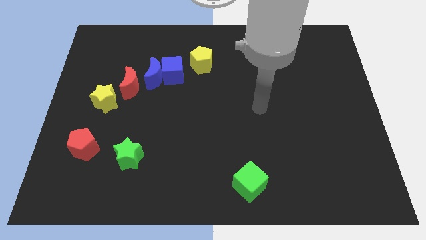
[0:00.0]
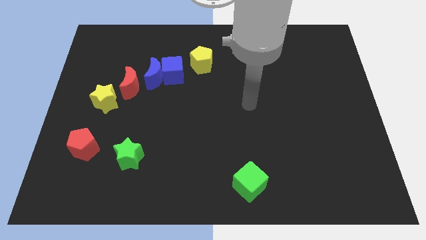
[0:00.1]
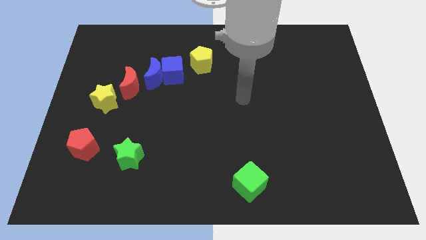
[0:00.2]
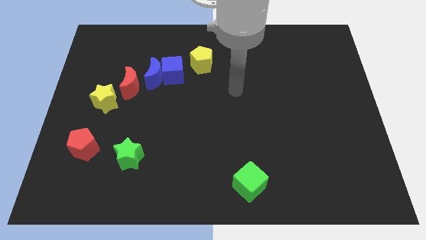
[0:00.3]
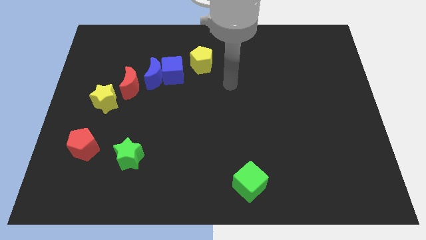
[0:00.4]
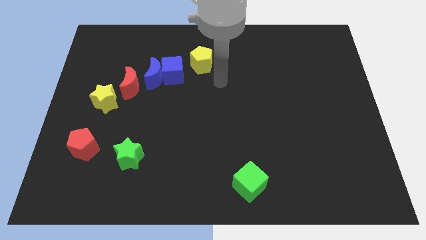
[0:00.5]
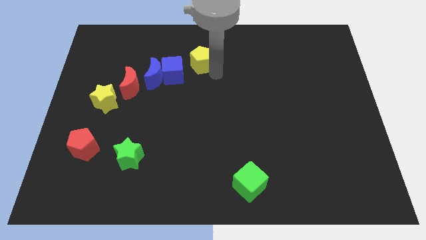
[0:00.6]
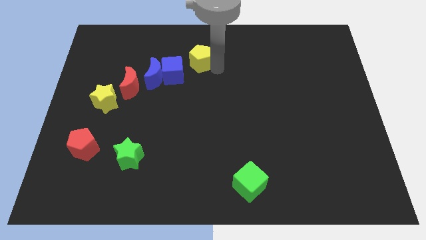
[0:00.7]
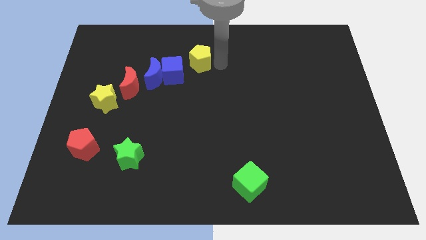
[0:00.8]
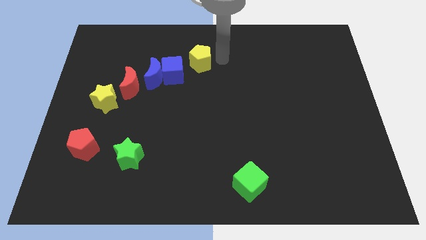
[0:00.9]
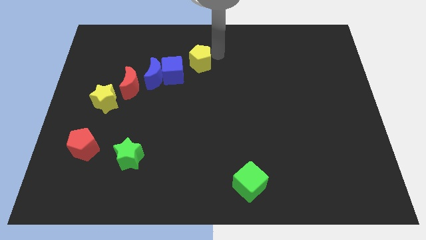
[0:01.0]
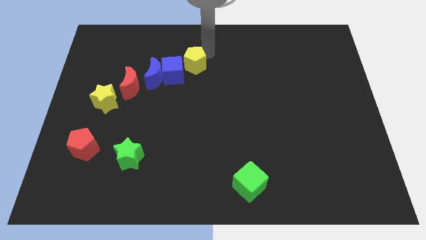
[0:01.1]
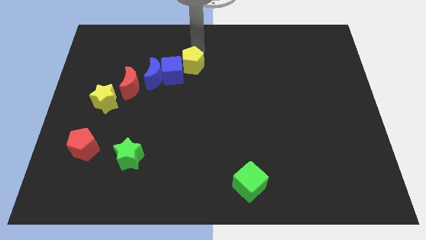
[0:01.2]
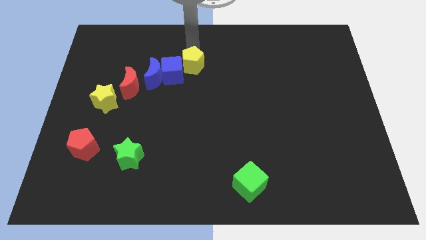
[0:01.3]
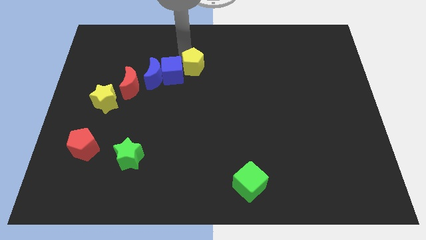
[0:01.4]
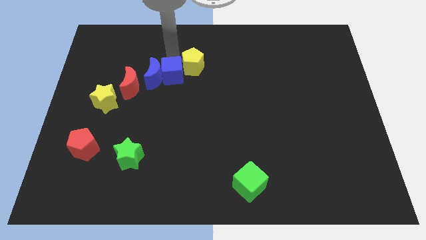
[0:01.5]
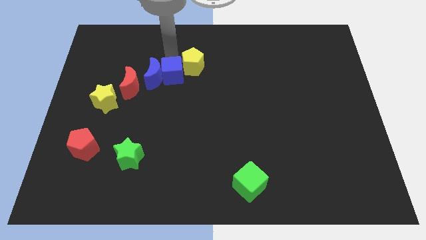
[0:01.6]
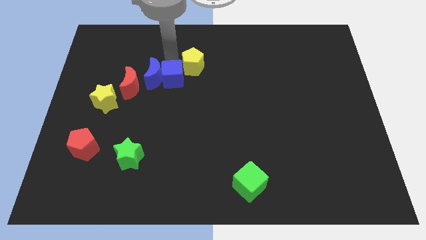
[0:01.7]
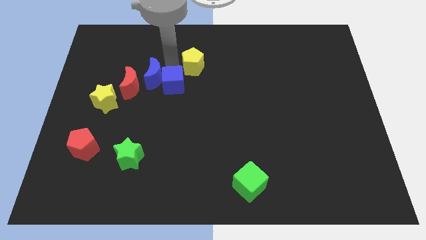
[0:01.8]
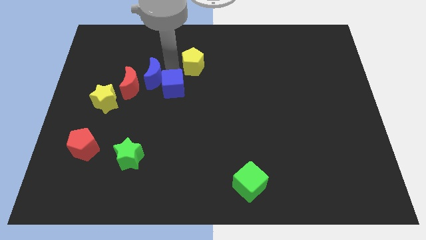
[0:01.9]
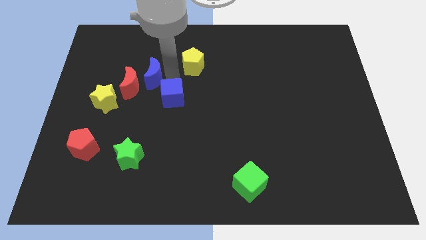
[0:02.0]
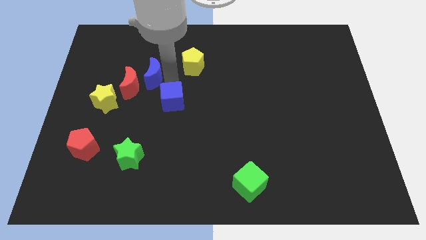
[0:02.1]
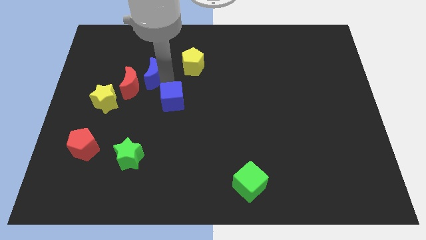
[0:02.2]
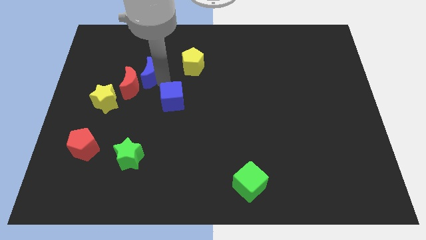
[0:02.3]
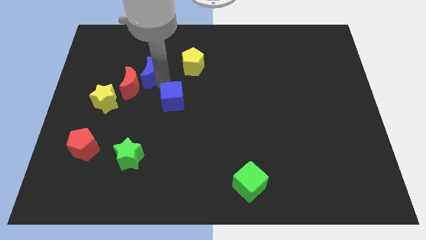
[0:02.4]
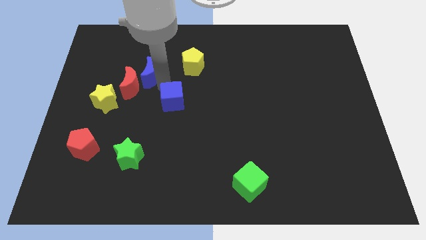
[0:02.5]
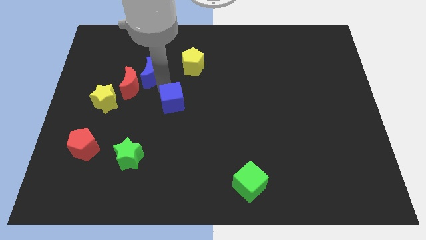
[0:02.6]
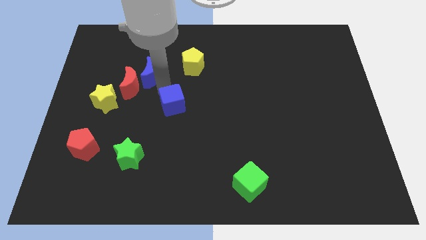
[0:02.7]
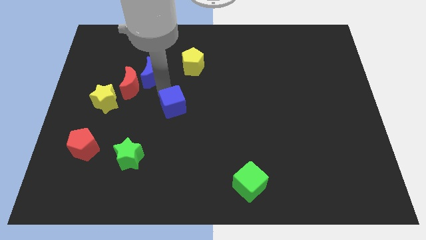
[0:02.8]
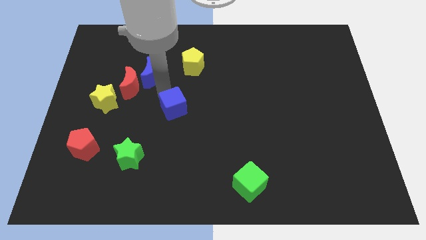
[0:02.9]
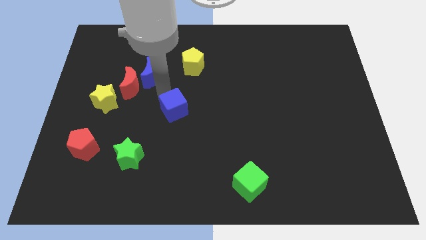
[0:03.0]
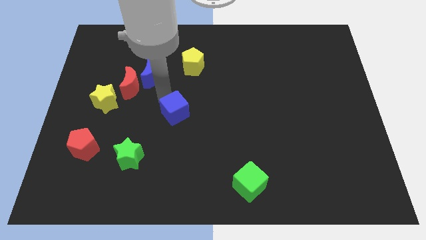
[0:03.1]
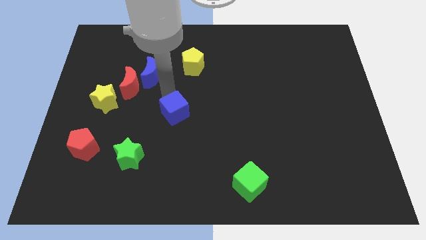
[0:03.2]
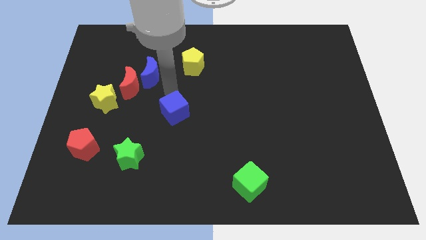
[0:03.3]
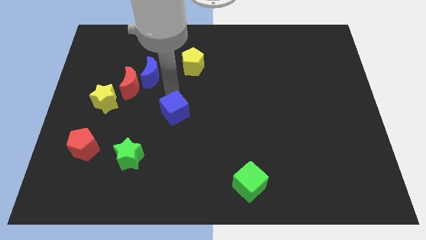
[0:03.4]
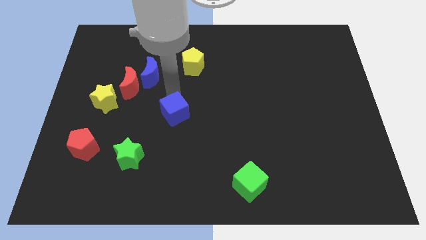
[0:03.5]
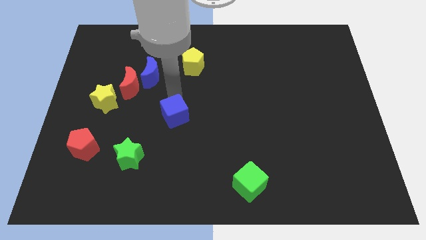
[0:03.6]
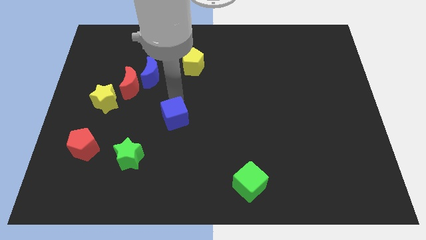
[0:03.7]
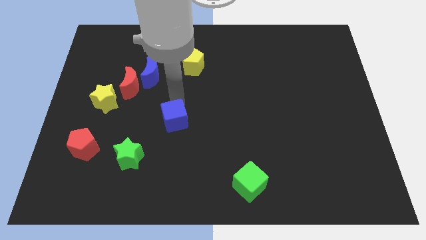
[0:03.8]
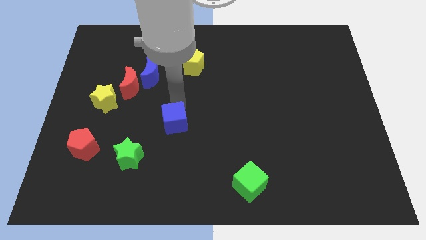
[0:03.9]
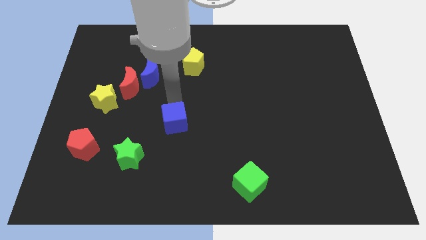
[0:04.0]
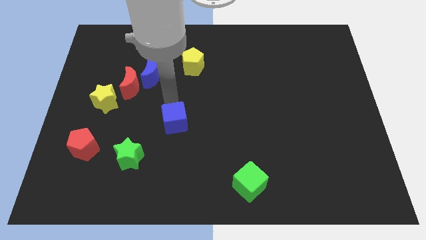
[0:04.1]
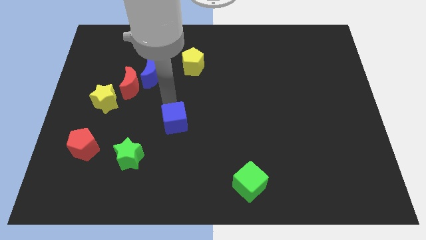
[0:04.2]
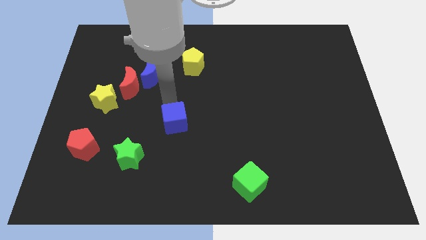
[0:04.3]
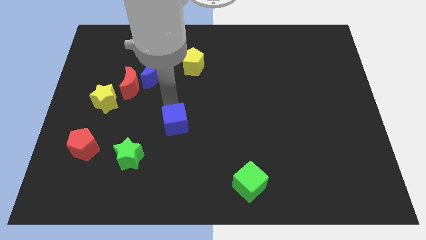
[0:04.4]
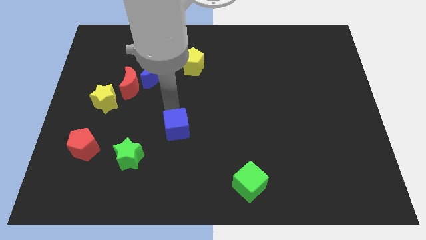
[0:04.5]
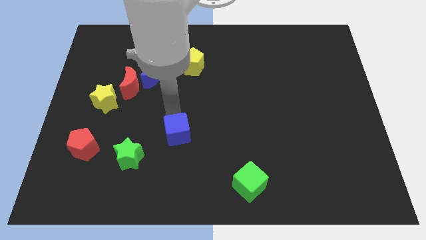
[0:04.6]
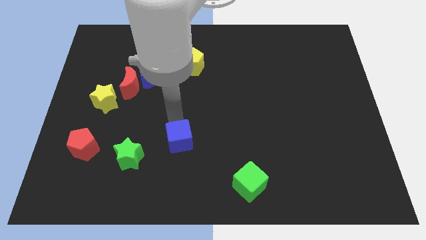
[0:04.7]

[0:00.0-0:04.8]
put the blue cube right of the green star

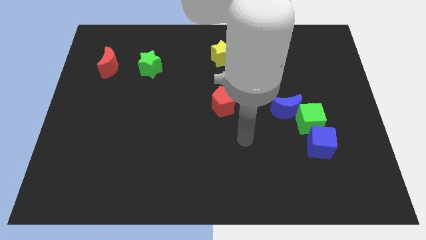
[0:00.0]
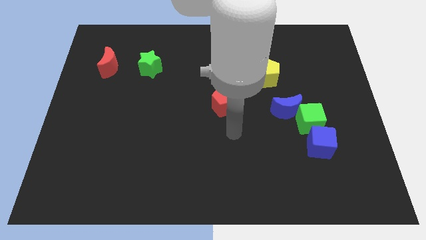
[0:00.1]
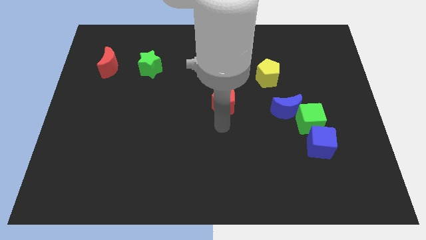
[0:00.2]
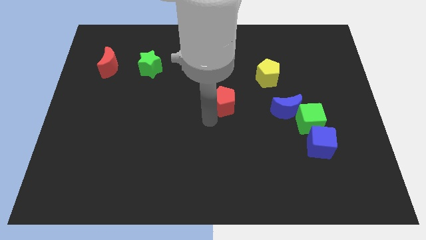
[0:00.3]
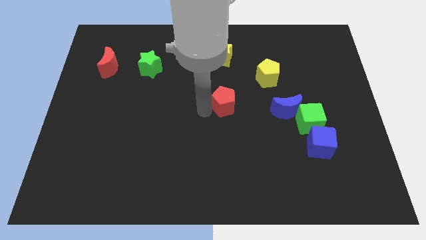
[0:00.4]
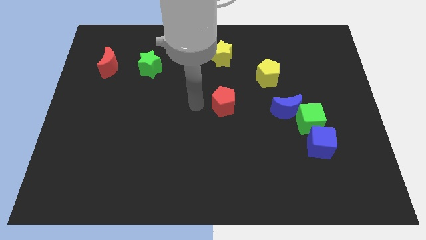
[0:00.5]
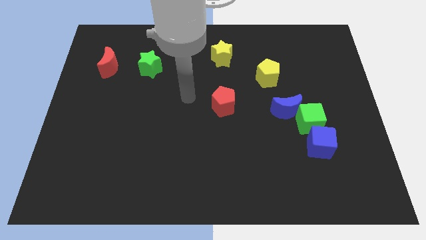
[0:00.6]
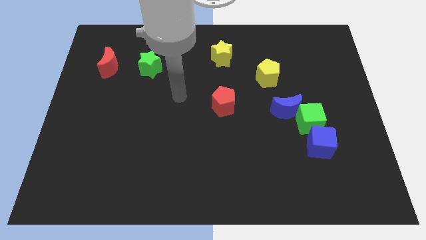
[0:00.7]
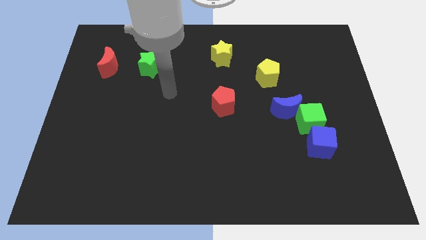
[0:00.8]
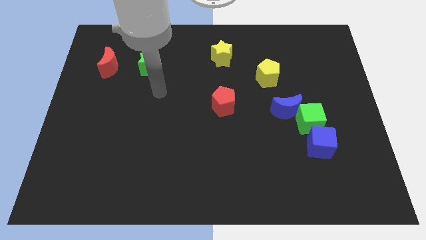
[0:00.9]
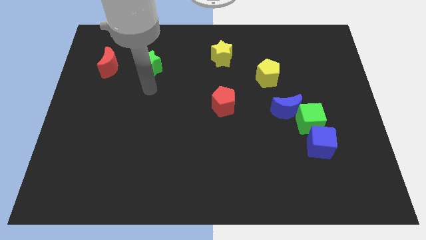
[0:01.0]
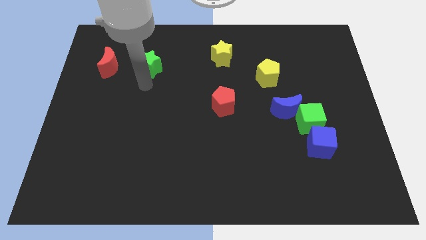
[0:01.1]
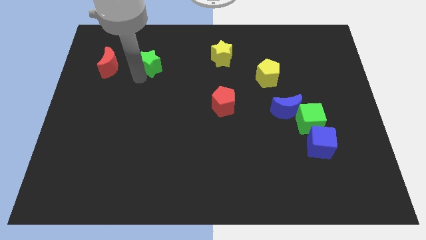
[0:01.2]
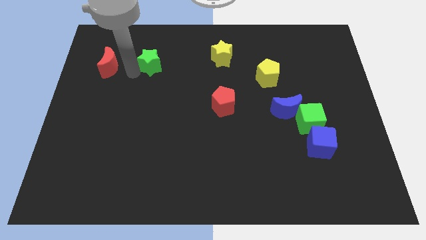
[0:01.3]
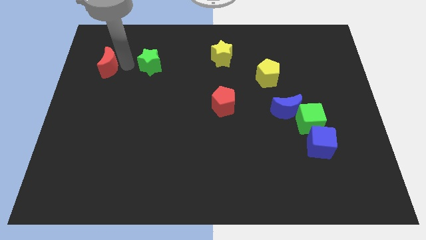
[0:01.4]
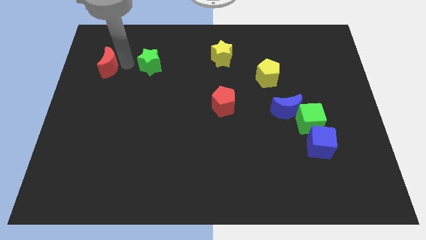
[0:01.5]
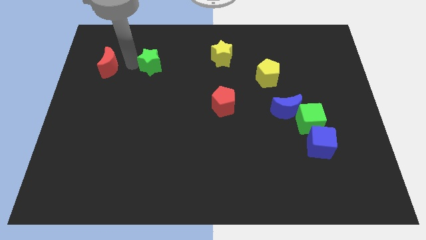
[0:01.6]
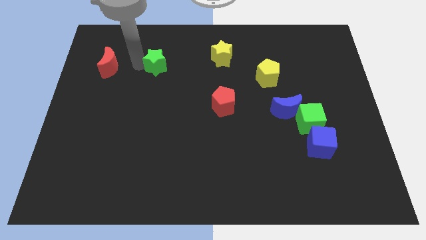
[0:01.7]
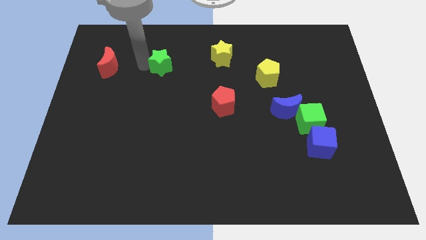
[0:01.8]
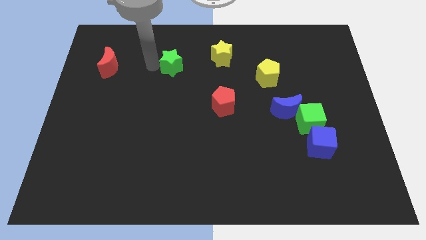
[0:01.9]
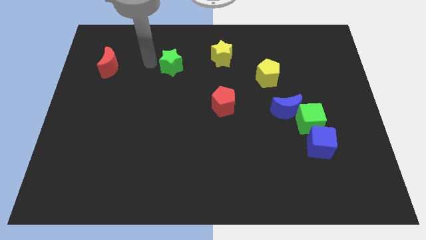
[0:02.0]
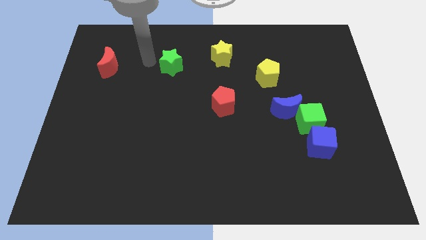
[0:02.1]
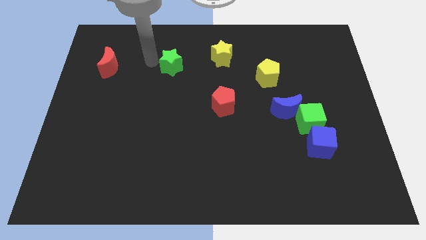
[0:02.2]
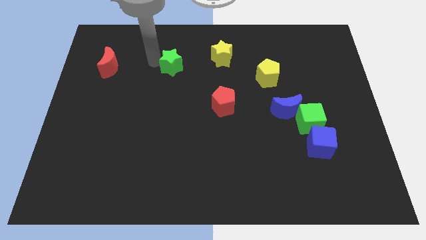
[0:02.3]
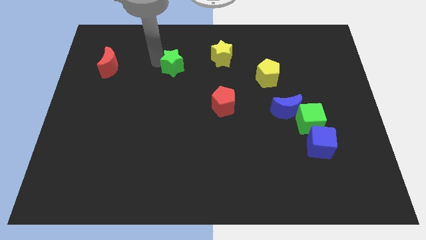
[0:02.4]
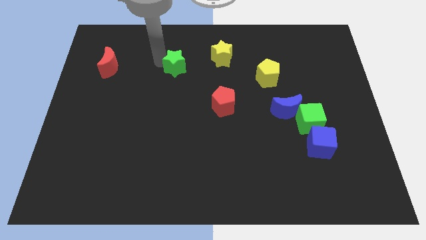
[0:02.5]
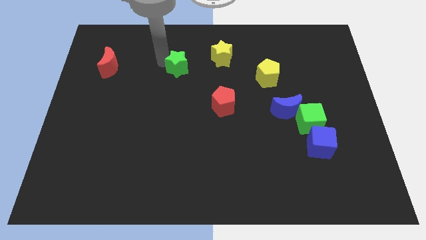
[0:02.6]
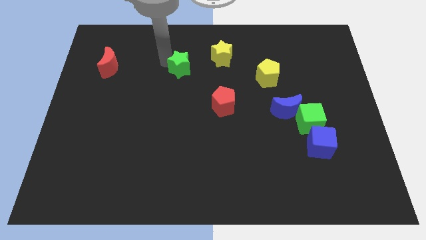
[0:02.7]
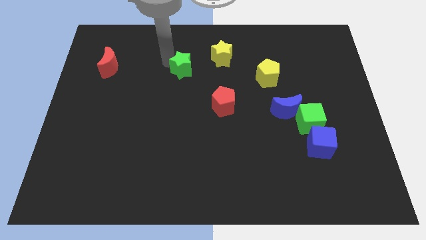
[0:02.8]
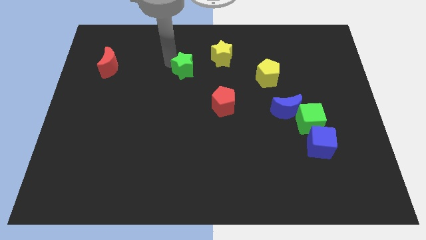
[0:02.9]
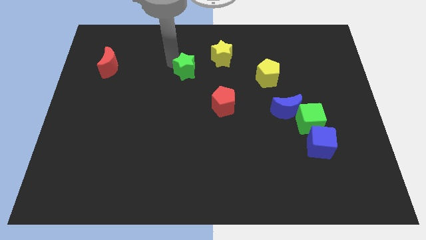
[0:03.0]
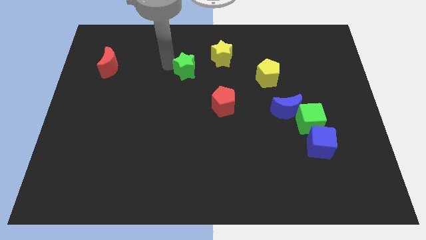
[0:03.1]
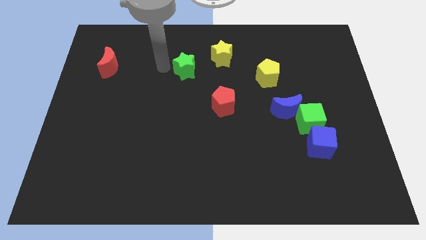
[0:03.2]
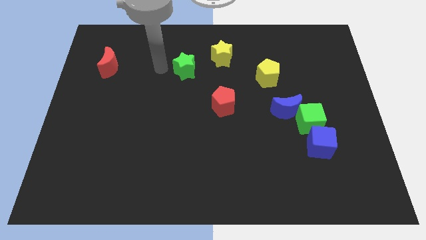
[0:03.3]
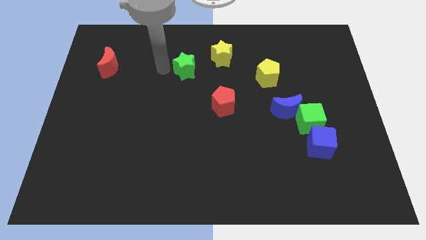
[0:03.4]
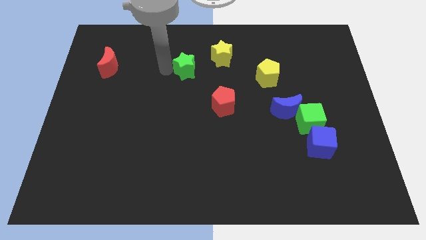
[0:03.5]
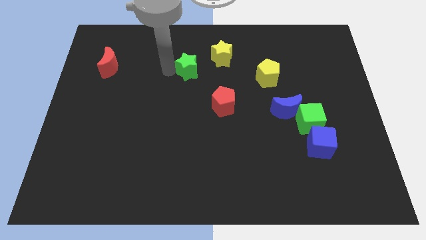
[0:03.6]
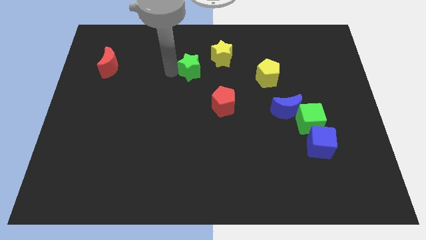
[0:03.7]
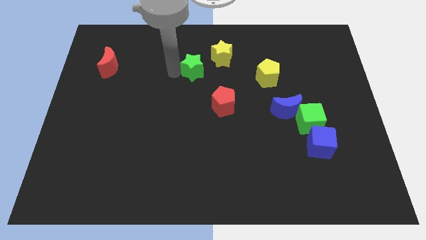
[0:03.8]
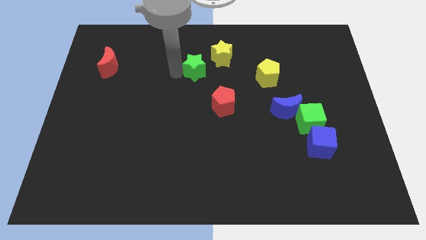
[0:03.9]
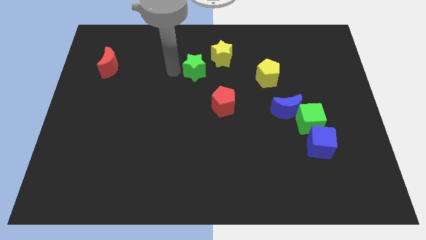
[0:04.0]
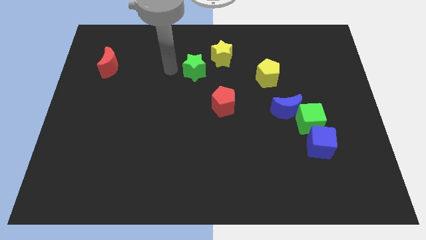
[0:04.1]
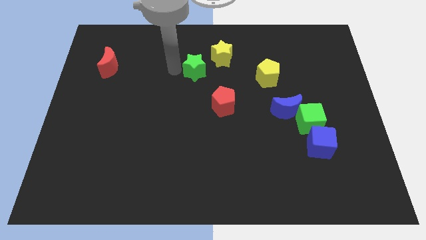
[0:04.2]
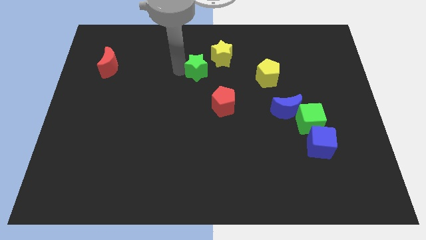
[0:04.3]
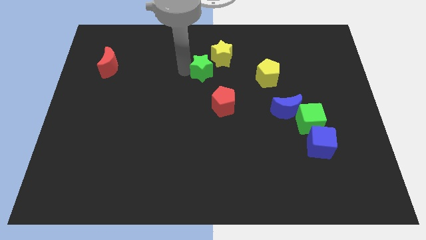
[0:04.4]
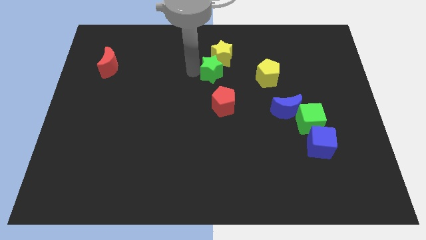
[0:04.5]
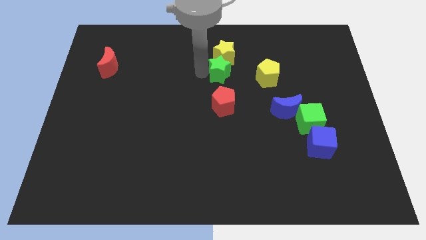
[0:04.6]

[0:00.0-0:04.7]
slide the green star diagonally down and to the right of the yellow star
